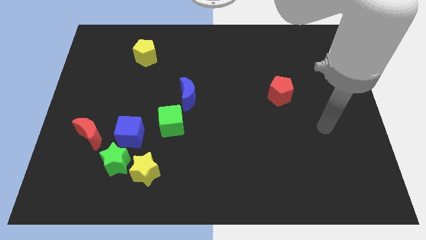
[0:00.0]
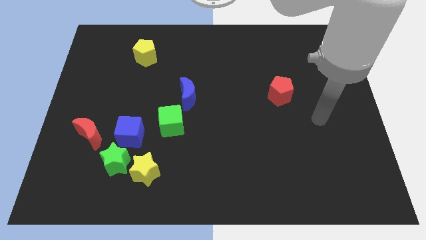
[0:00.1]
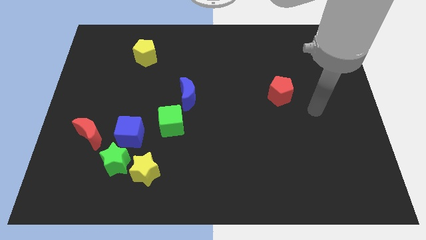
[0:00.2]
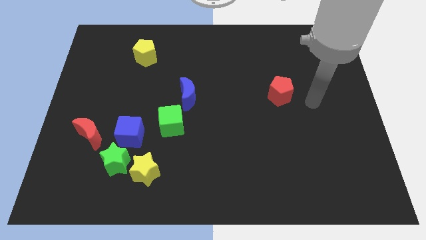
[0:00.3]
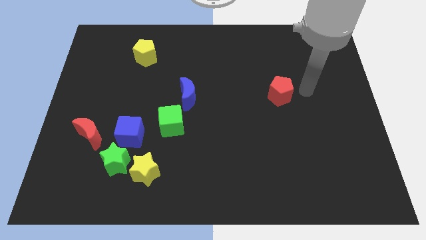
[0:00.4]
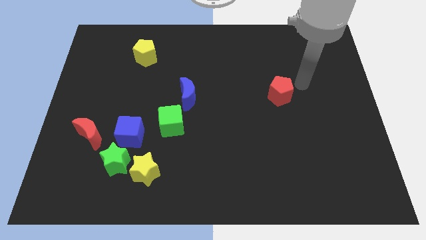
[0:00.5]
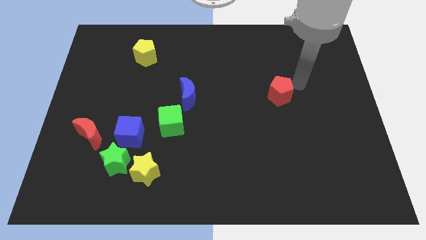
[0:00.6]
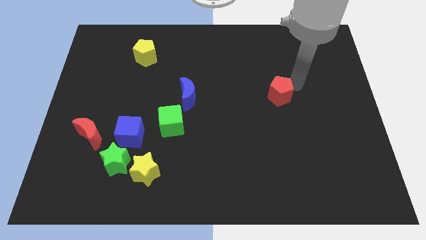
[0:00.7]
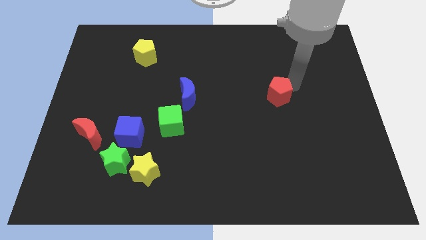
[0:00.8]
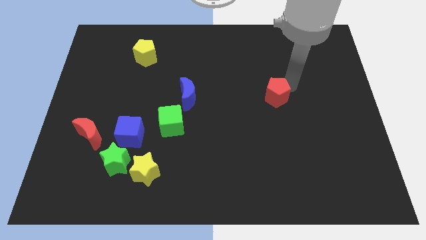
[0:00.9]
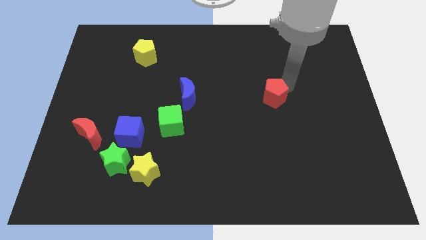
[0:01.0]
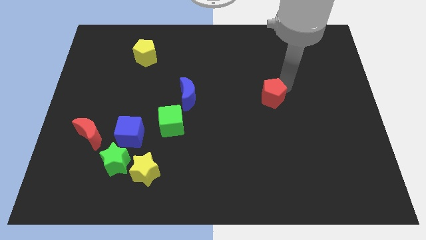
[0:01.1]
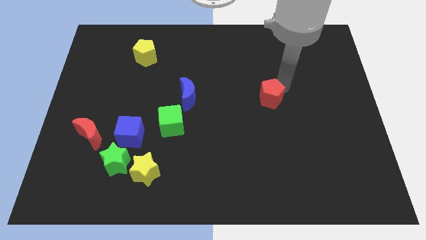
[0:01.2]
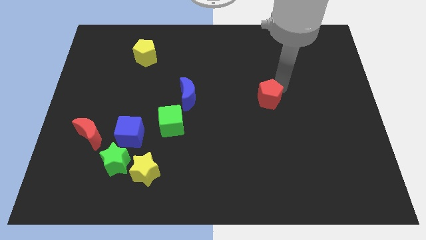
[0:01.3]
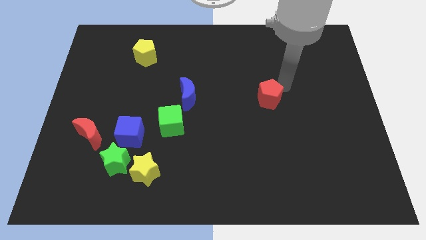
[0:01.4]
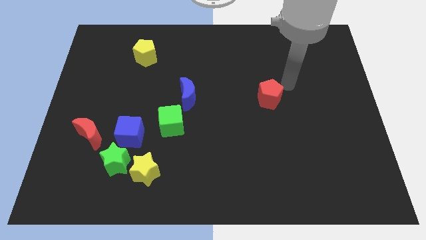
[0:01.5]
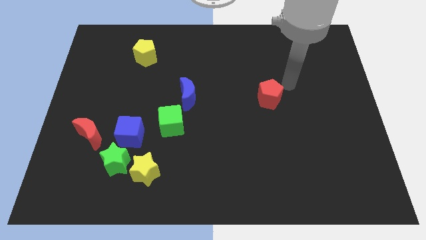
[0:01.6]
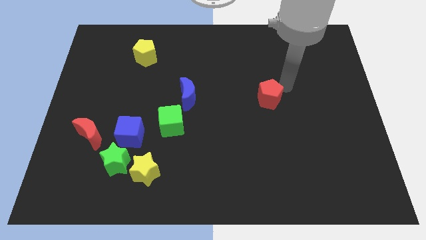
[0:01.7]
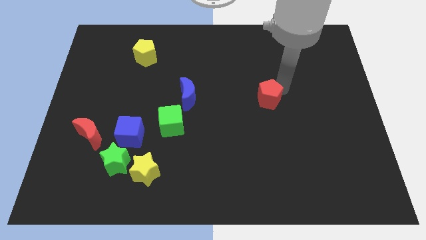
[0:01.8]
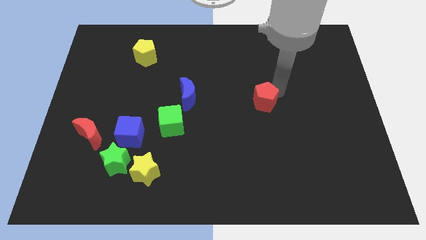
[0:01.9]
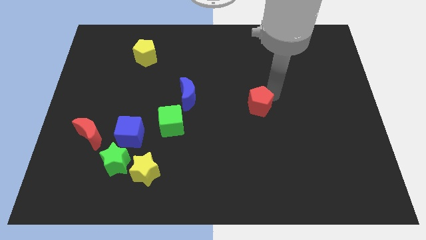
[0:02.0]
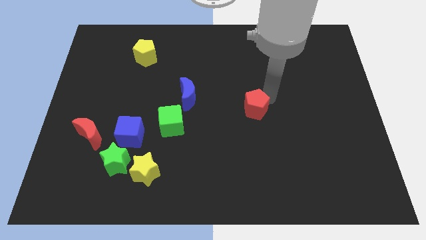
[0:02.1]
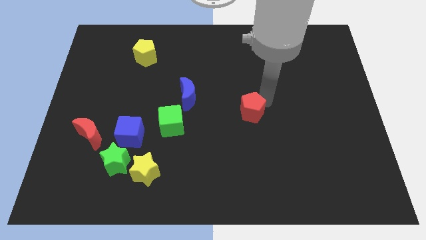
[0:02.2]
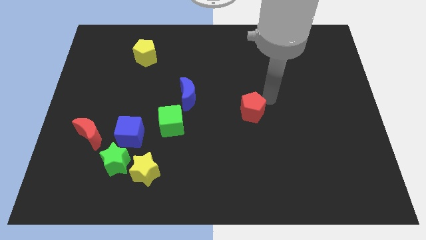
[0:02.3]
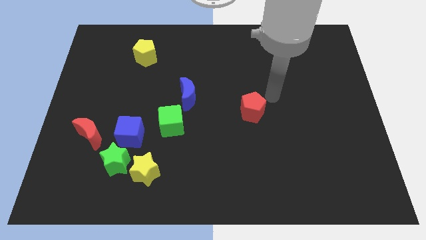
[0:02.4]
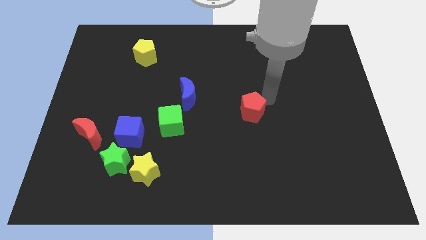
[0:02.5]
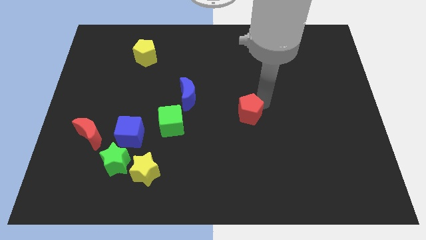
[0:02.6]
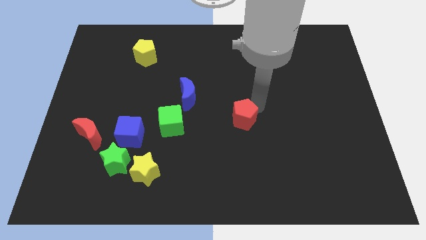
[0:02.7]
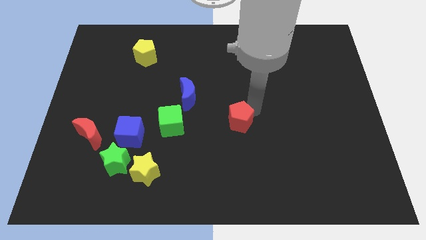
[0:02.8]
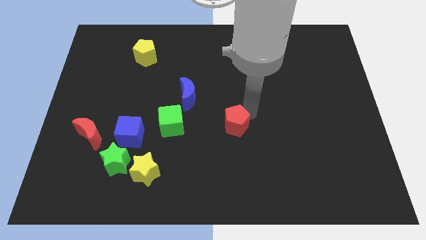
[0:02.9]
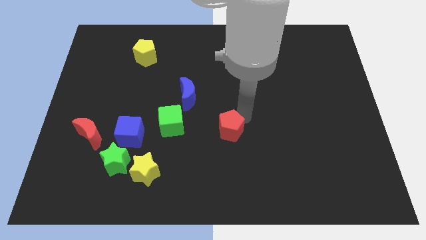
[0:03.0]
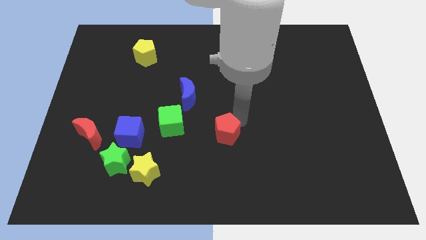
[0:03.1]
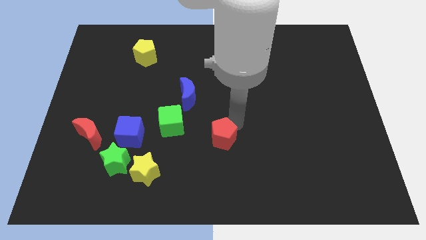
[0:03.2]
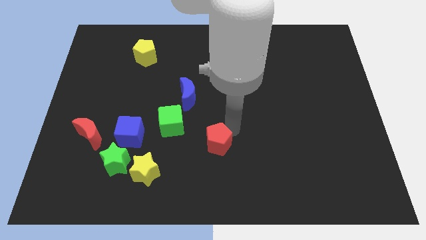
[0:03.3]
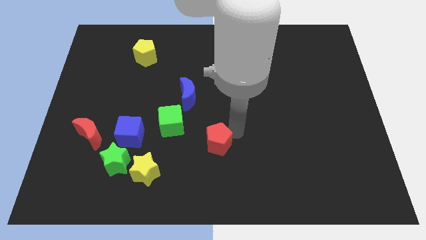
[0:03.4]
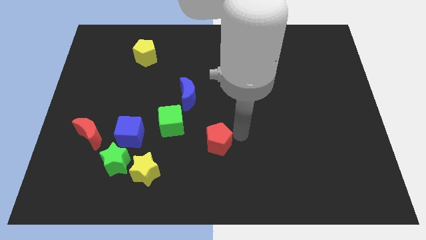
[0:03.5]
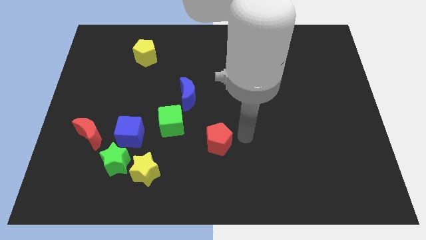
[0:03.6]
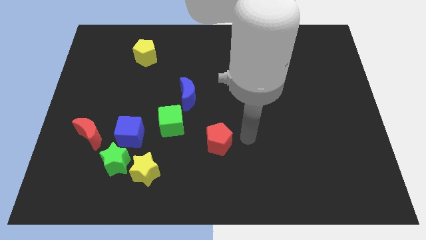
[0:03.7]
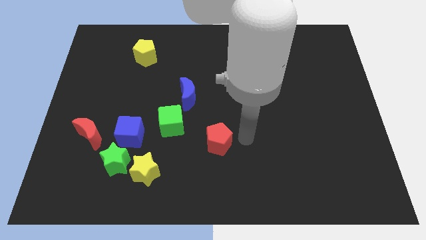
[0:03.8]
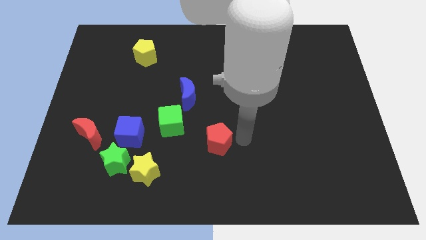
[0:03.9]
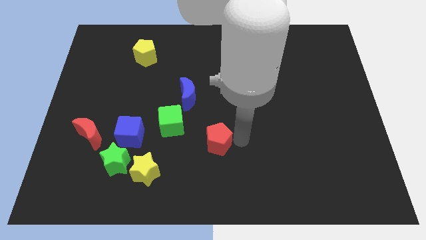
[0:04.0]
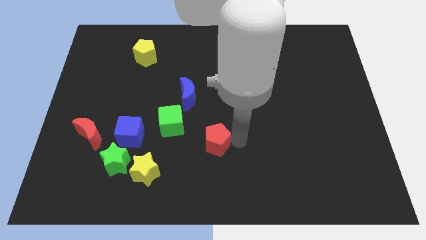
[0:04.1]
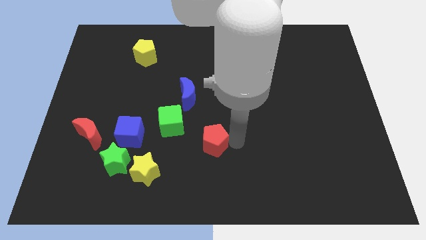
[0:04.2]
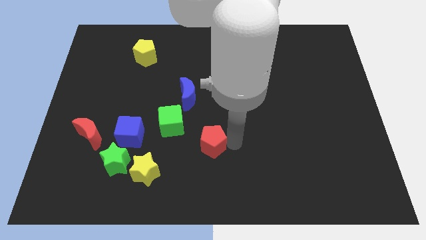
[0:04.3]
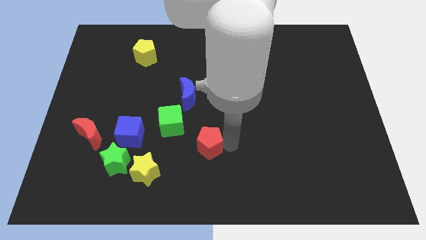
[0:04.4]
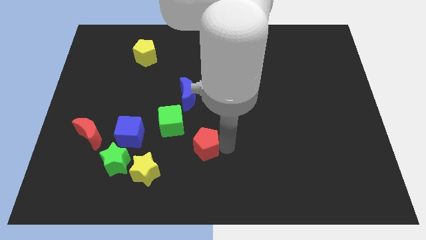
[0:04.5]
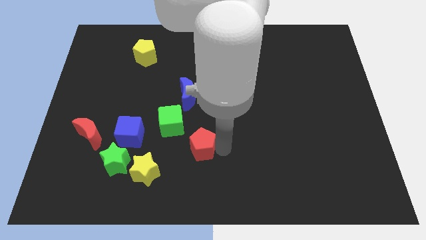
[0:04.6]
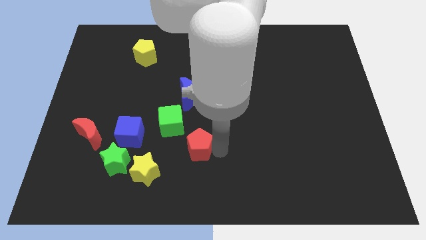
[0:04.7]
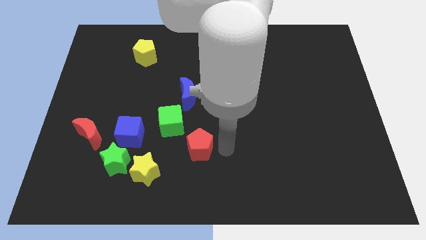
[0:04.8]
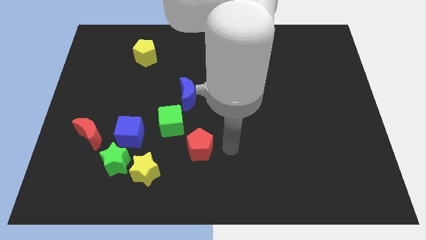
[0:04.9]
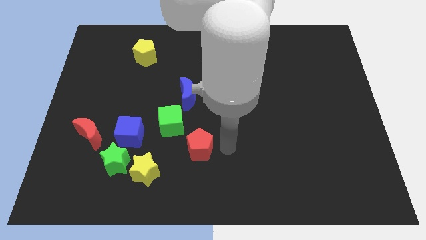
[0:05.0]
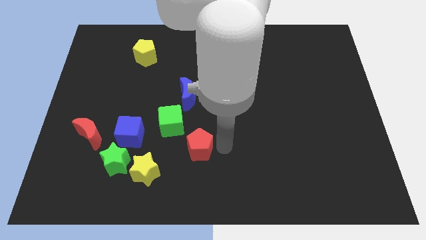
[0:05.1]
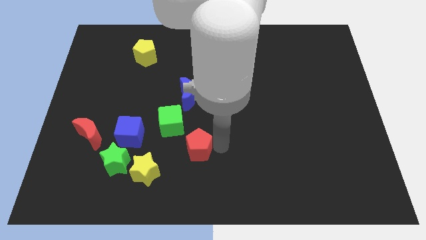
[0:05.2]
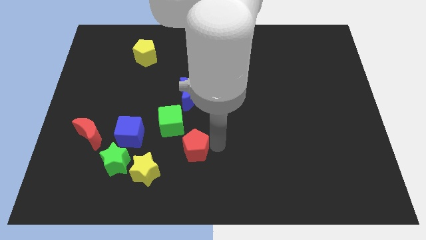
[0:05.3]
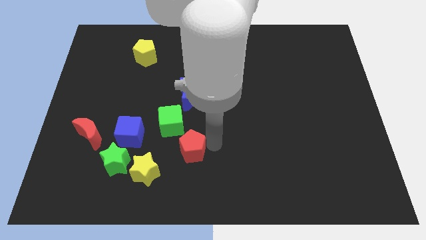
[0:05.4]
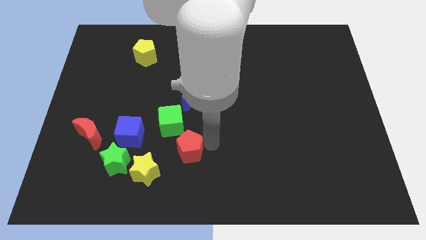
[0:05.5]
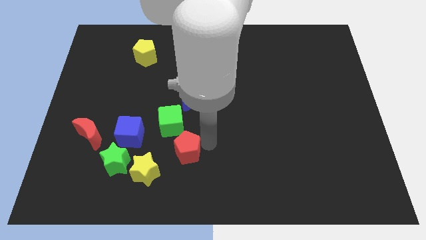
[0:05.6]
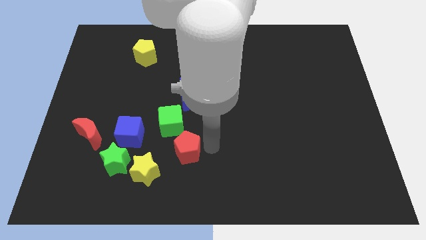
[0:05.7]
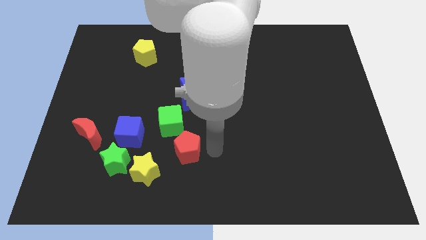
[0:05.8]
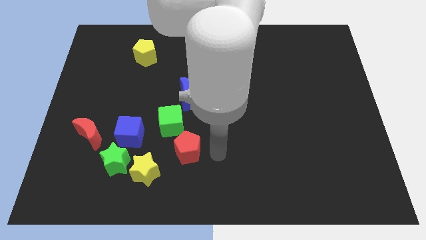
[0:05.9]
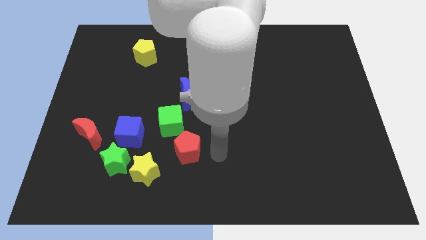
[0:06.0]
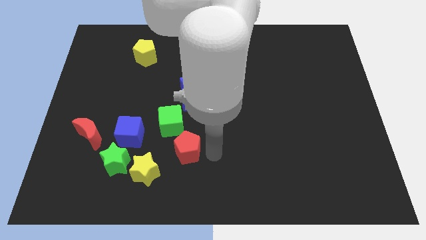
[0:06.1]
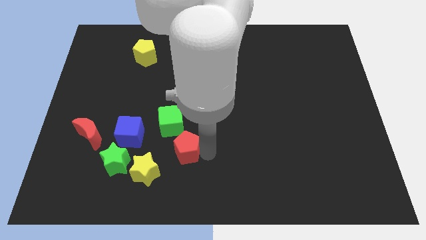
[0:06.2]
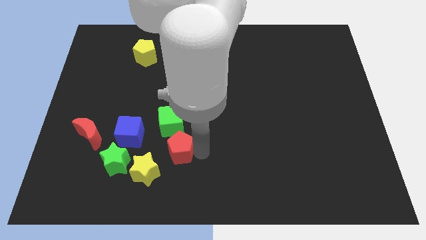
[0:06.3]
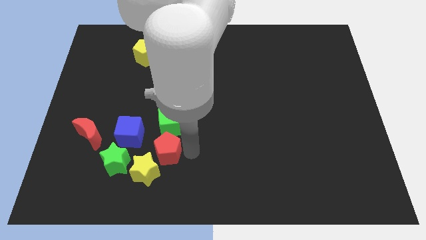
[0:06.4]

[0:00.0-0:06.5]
move the red pentagon to the bottom left of the green cube

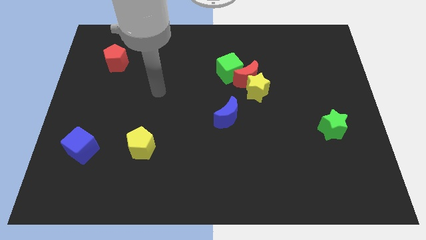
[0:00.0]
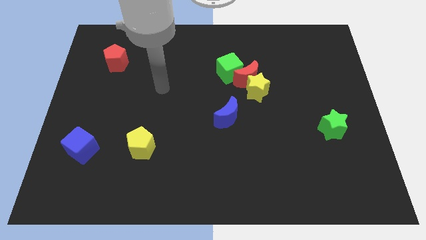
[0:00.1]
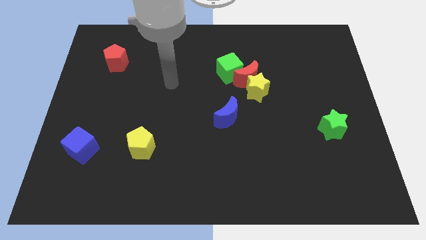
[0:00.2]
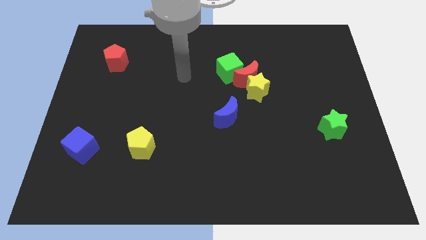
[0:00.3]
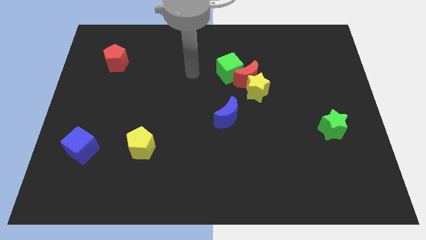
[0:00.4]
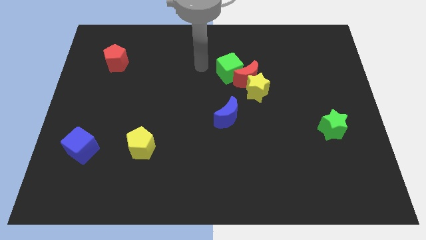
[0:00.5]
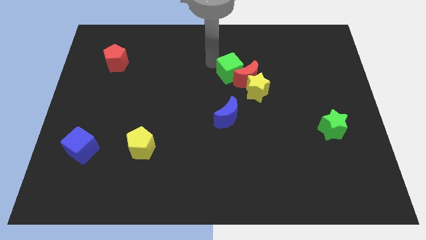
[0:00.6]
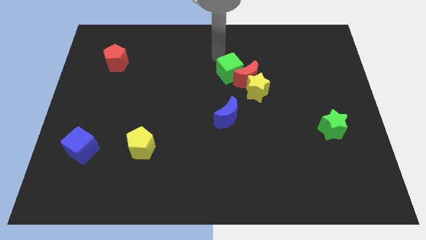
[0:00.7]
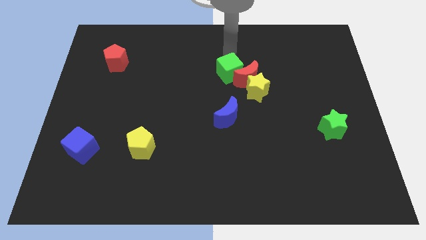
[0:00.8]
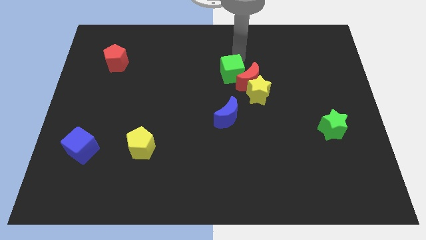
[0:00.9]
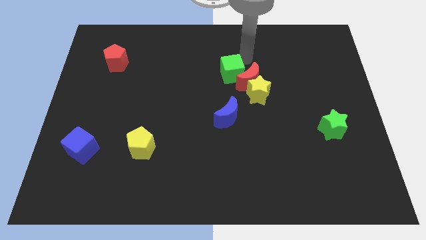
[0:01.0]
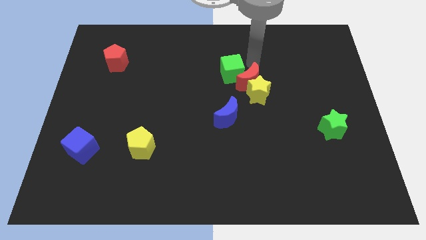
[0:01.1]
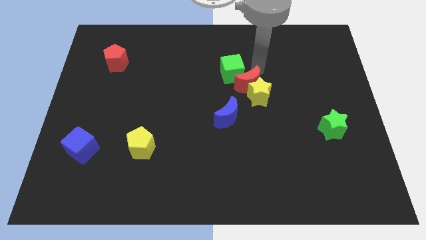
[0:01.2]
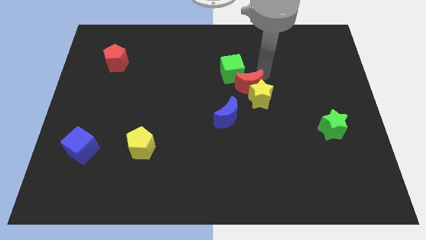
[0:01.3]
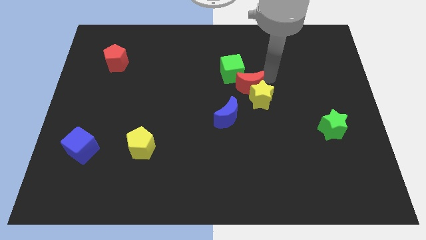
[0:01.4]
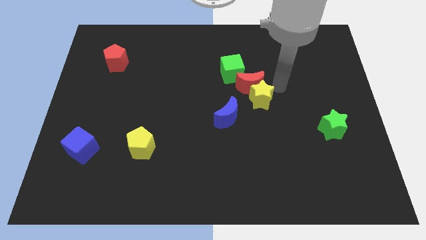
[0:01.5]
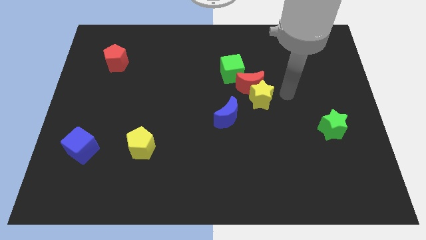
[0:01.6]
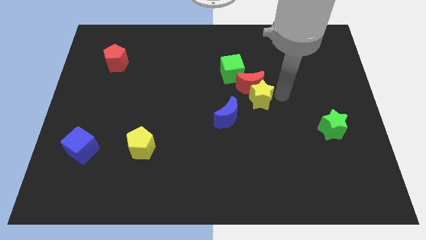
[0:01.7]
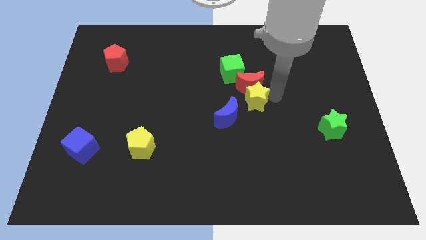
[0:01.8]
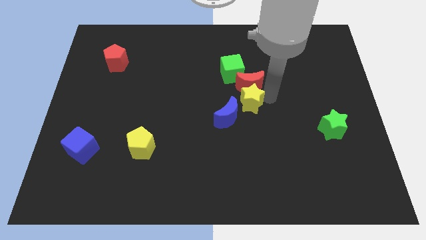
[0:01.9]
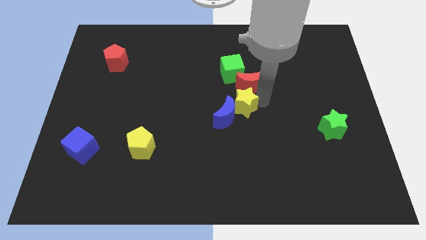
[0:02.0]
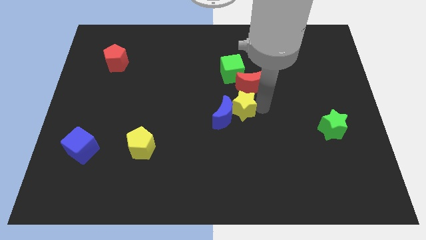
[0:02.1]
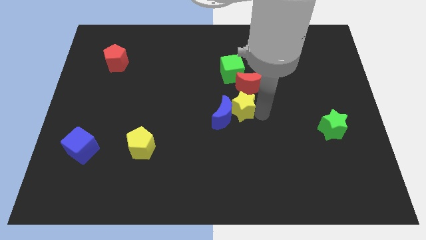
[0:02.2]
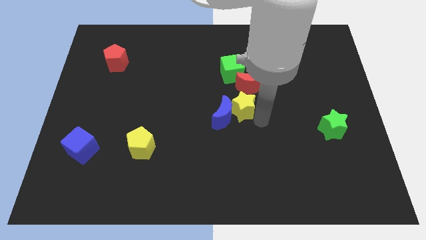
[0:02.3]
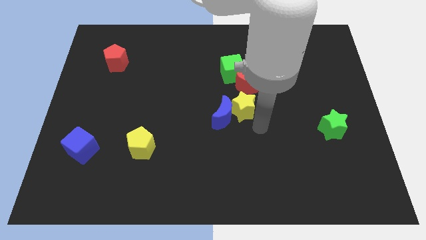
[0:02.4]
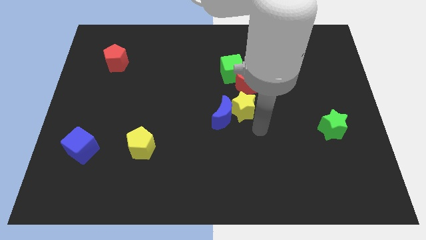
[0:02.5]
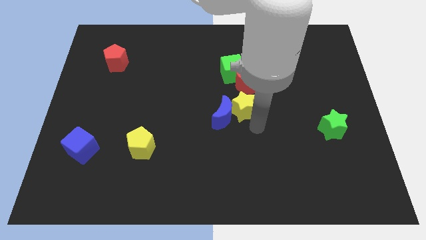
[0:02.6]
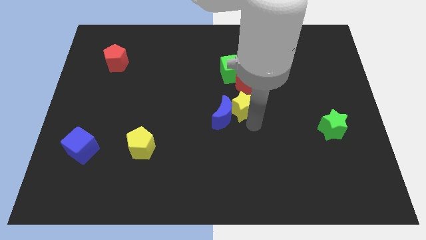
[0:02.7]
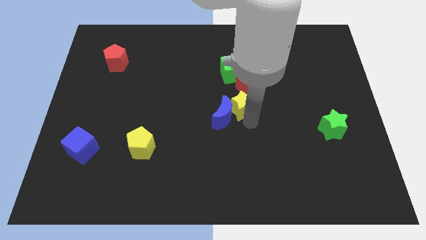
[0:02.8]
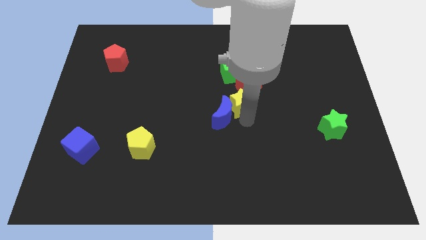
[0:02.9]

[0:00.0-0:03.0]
move the yellow star to the top side of the blue moon
